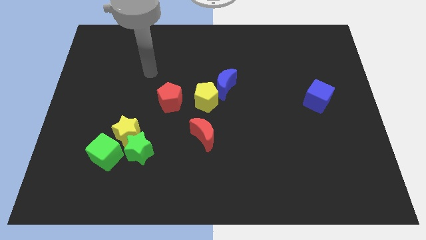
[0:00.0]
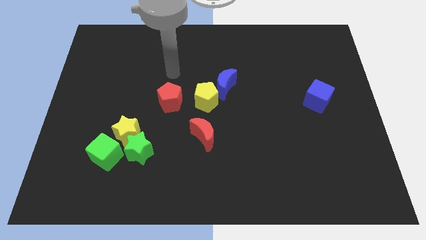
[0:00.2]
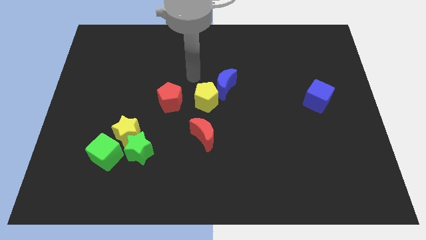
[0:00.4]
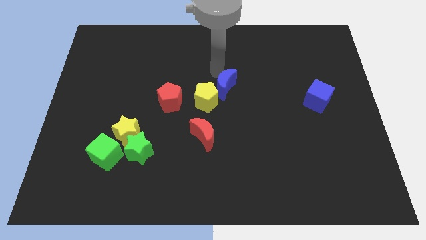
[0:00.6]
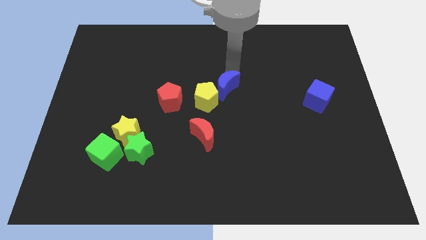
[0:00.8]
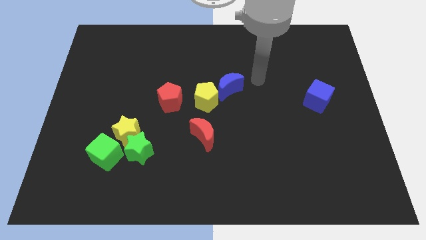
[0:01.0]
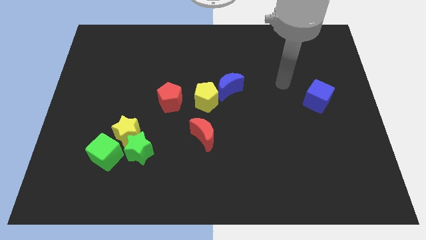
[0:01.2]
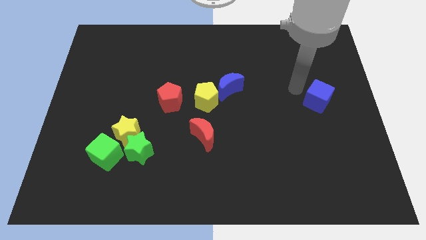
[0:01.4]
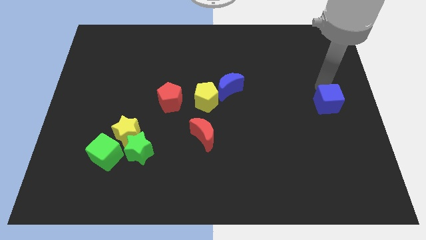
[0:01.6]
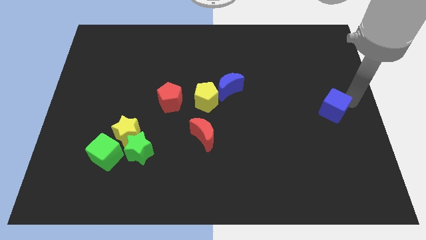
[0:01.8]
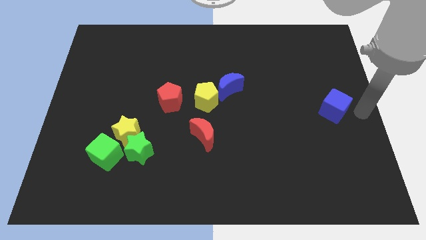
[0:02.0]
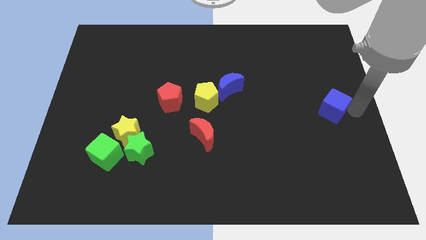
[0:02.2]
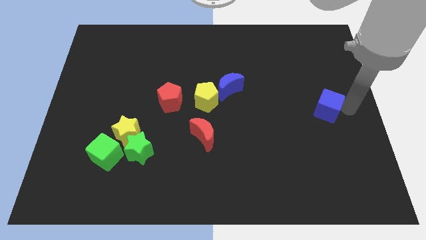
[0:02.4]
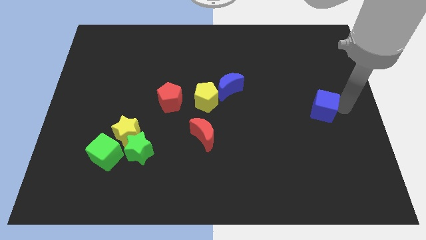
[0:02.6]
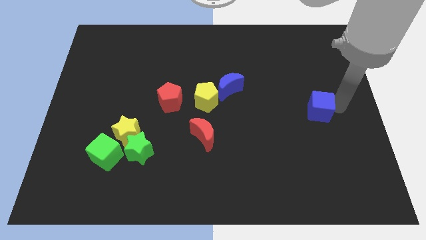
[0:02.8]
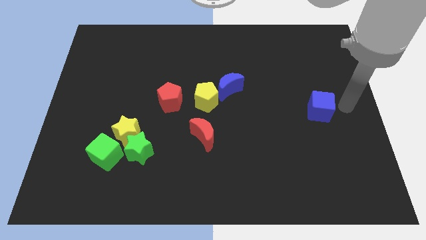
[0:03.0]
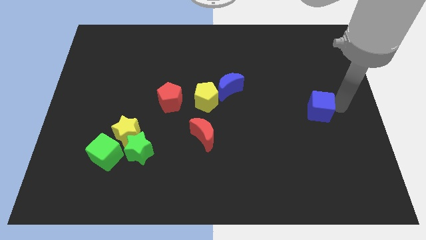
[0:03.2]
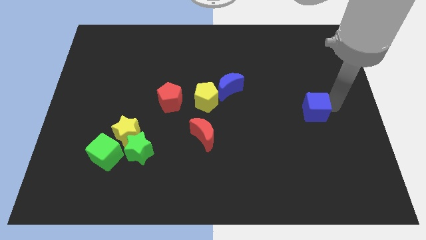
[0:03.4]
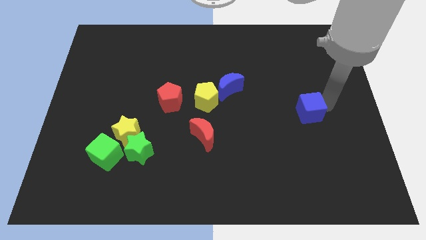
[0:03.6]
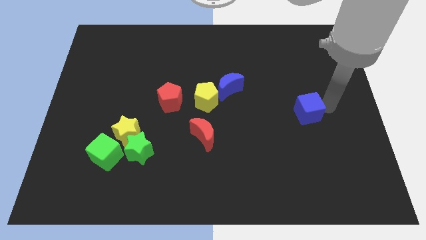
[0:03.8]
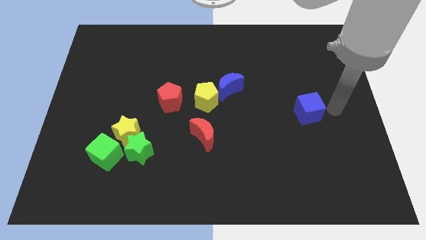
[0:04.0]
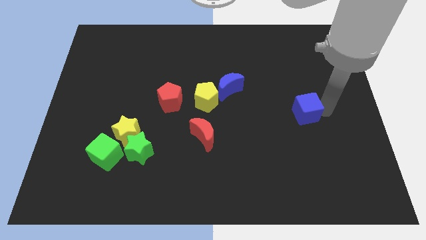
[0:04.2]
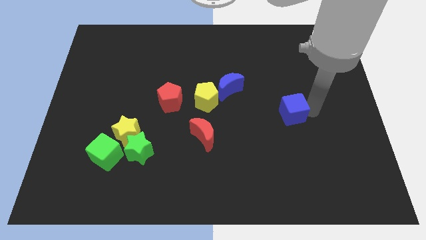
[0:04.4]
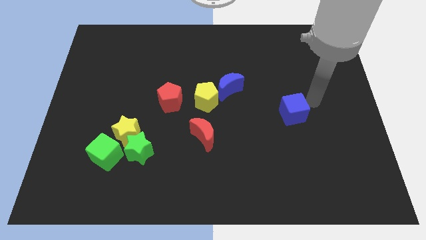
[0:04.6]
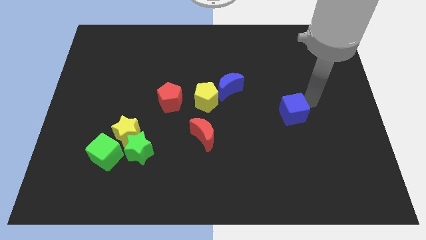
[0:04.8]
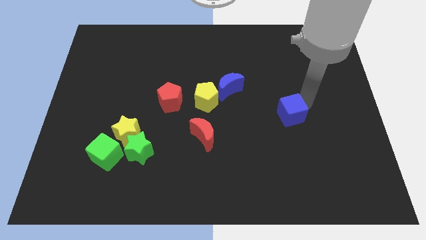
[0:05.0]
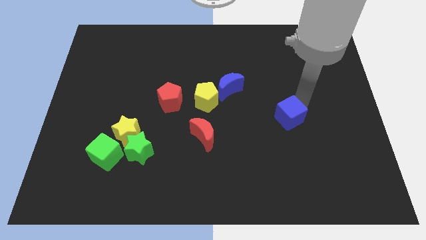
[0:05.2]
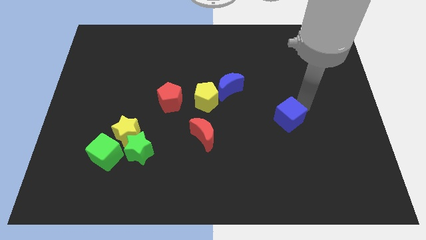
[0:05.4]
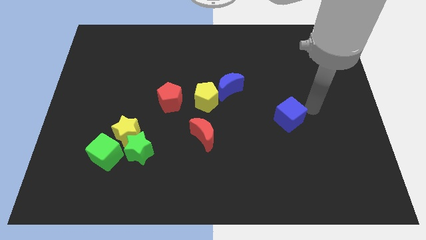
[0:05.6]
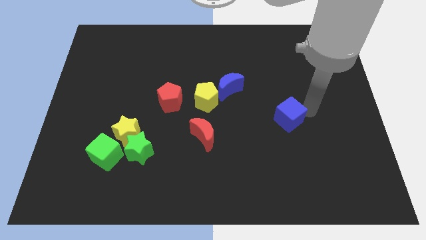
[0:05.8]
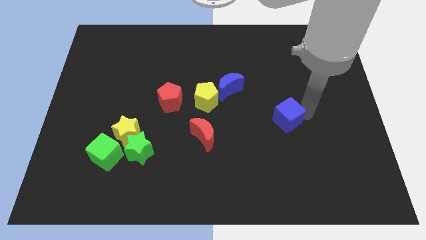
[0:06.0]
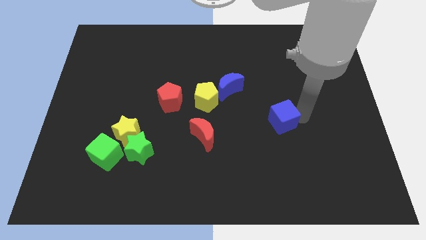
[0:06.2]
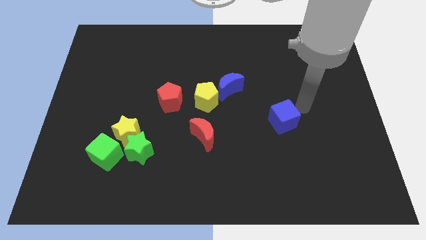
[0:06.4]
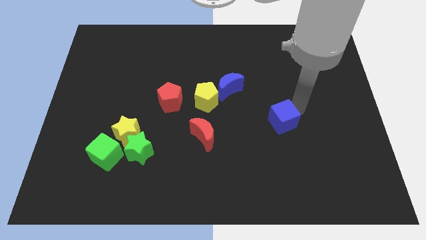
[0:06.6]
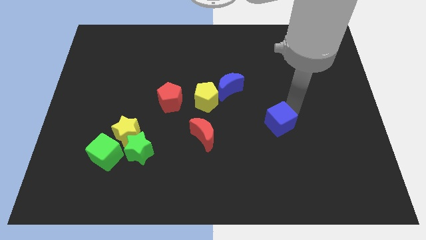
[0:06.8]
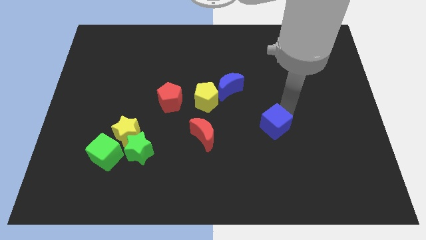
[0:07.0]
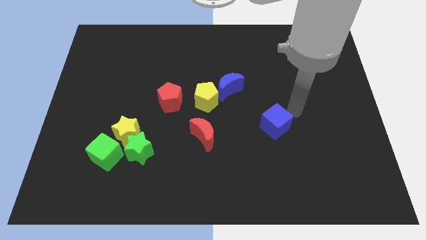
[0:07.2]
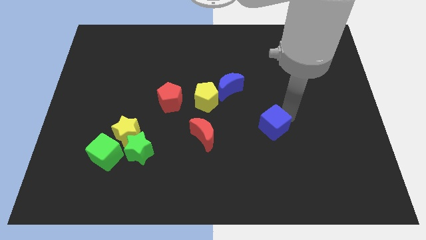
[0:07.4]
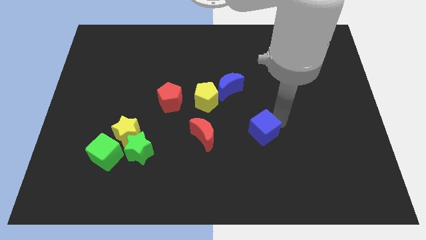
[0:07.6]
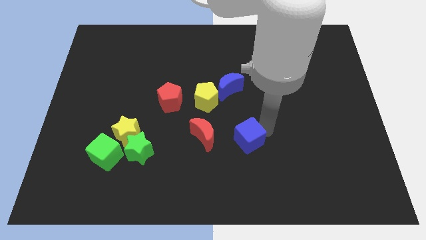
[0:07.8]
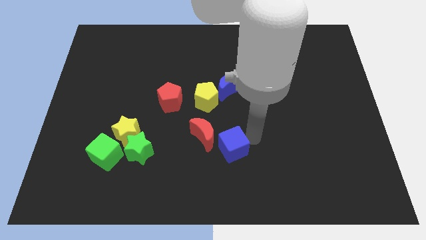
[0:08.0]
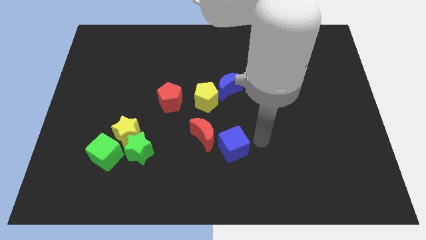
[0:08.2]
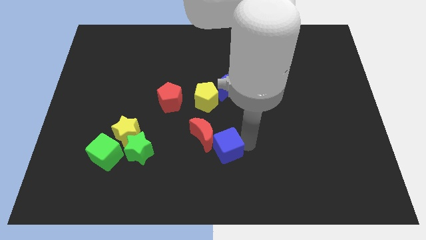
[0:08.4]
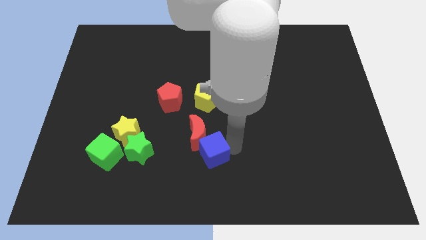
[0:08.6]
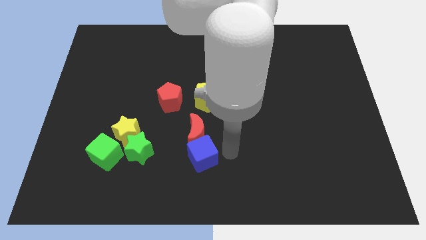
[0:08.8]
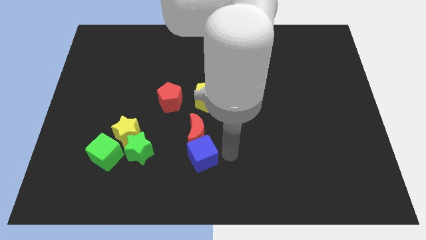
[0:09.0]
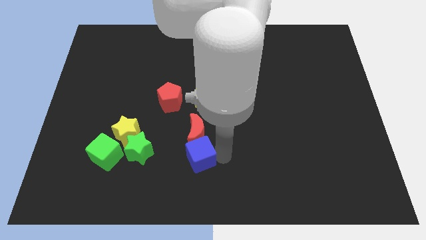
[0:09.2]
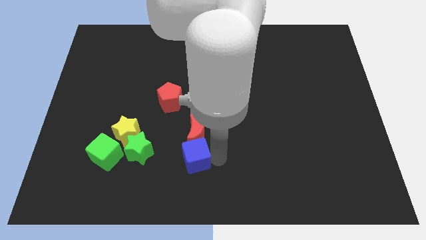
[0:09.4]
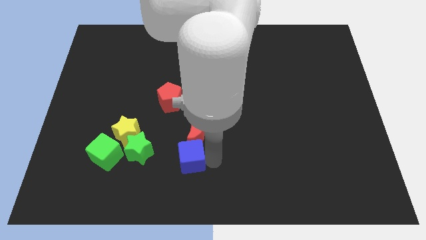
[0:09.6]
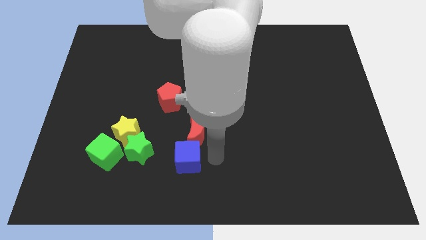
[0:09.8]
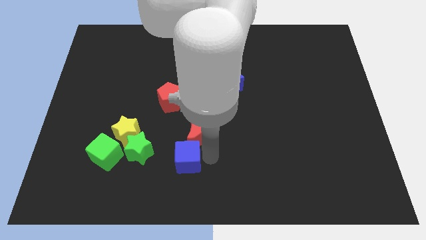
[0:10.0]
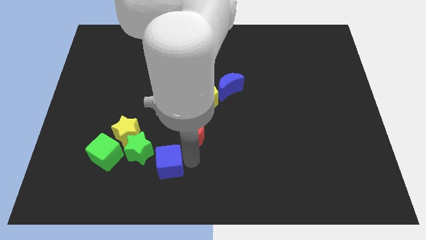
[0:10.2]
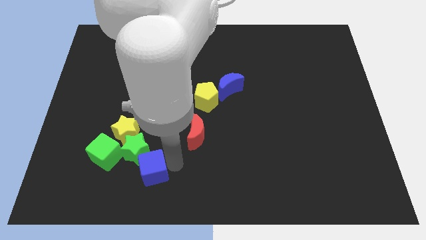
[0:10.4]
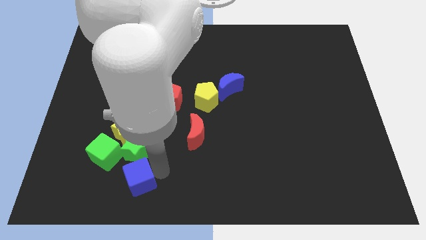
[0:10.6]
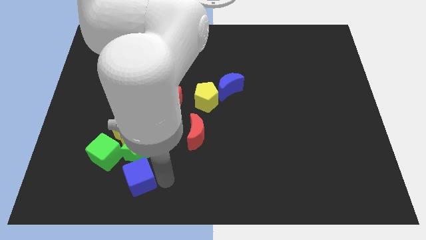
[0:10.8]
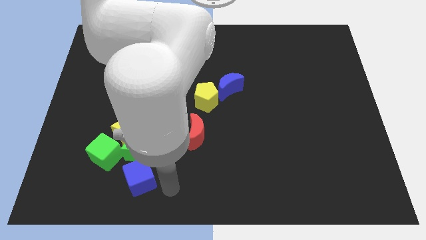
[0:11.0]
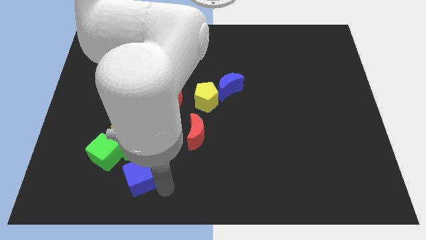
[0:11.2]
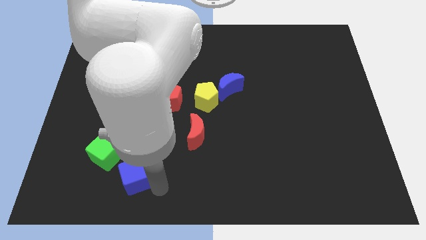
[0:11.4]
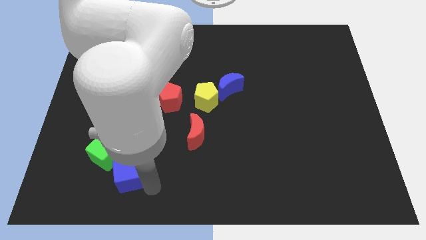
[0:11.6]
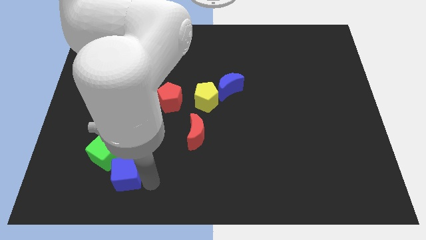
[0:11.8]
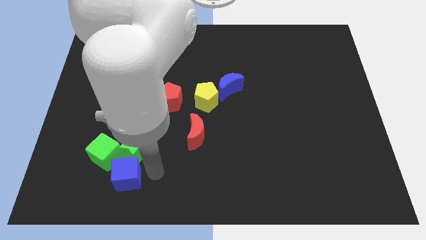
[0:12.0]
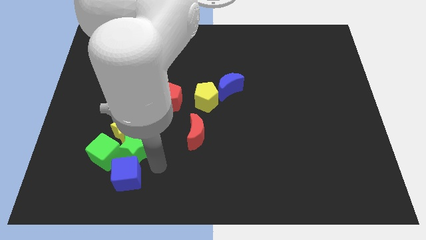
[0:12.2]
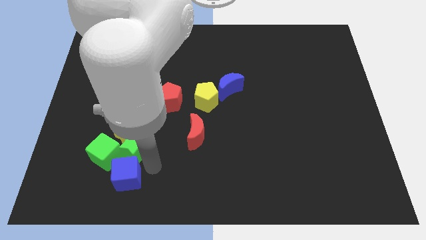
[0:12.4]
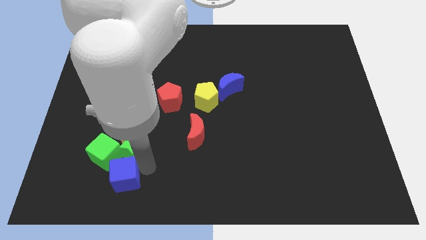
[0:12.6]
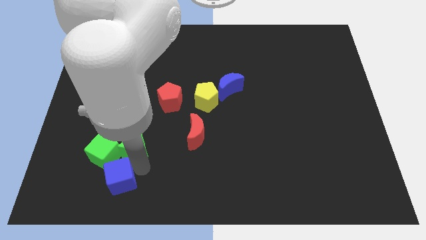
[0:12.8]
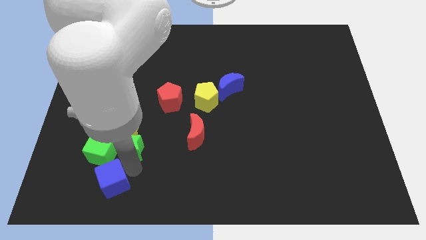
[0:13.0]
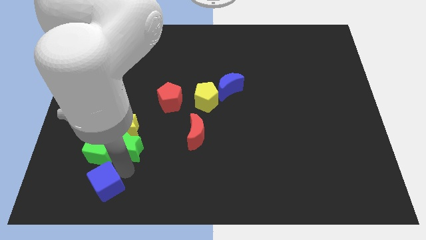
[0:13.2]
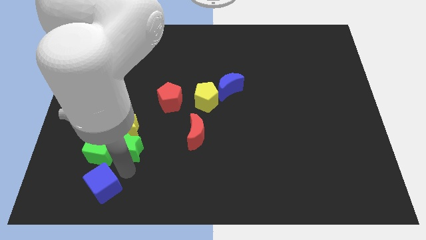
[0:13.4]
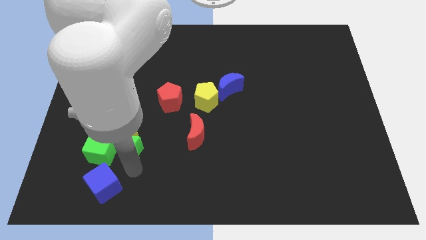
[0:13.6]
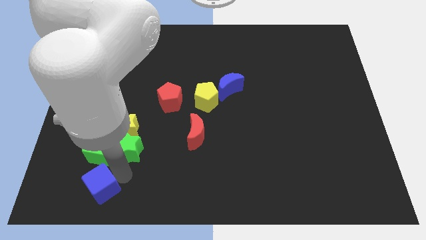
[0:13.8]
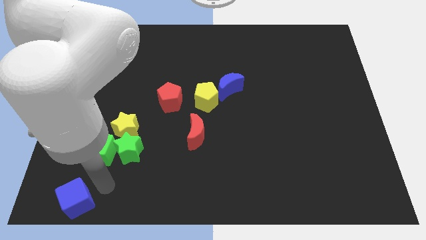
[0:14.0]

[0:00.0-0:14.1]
slide the blue cube to the bottom left of the board
